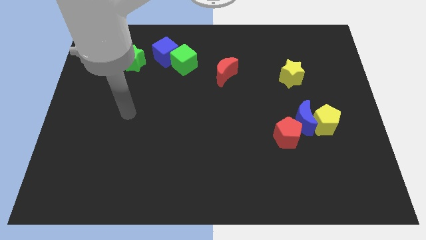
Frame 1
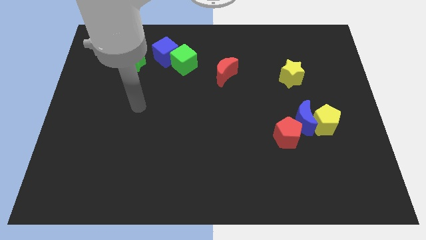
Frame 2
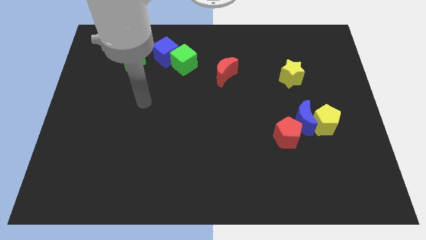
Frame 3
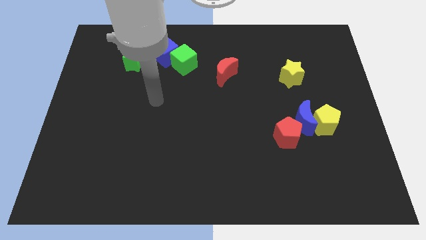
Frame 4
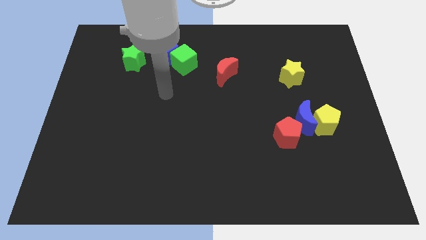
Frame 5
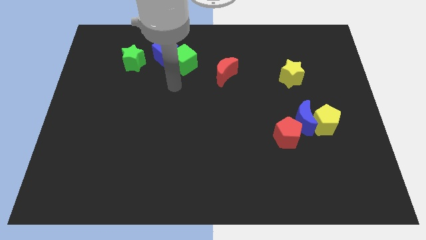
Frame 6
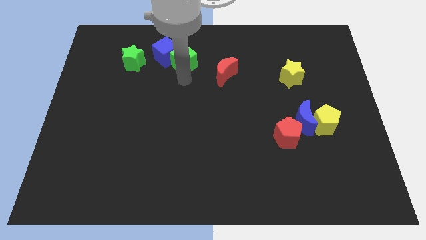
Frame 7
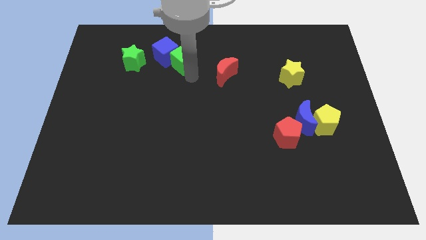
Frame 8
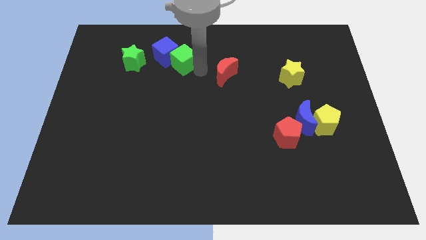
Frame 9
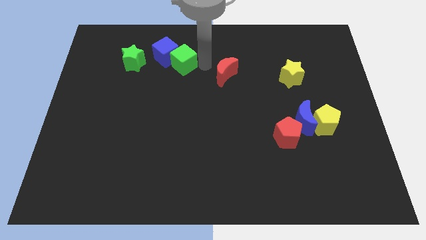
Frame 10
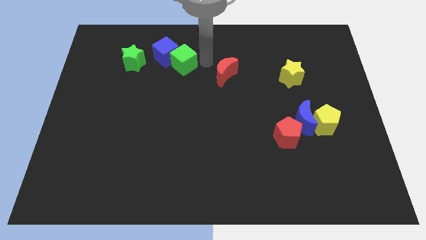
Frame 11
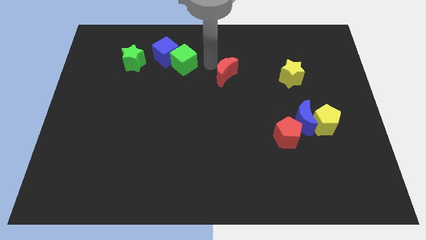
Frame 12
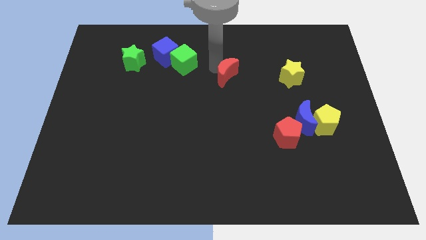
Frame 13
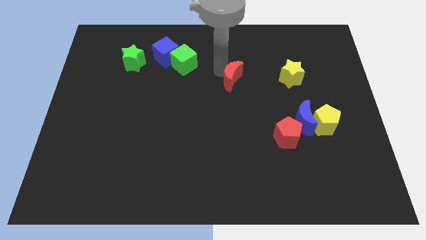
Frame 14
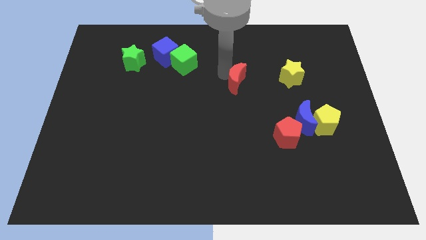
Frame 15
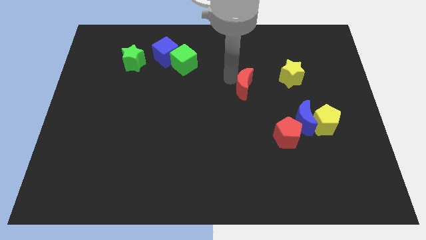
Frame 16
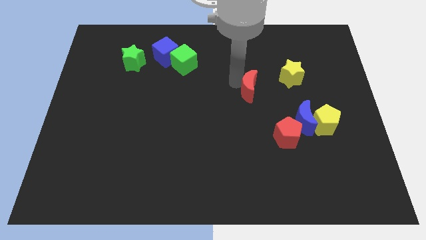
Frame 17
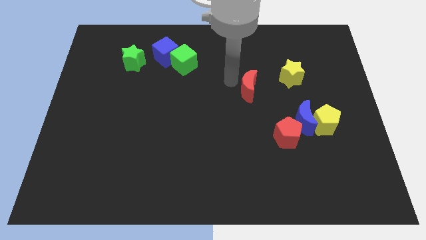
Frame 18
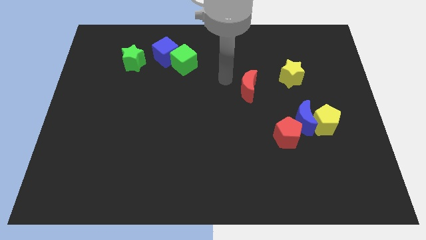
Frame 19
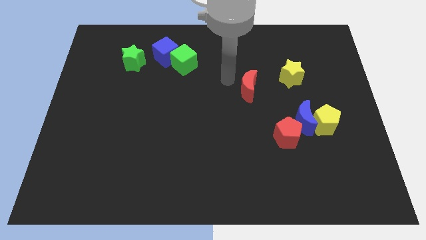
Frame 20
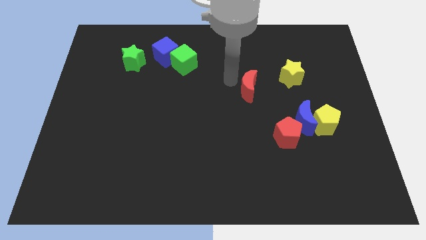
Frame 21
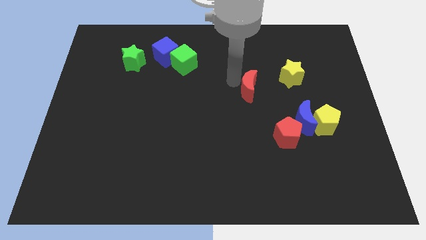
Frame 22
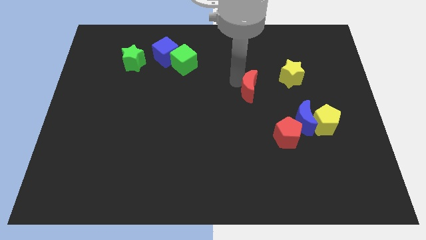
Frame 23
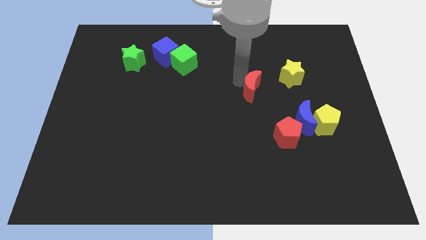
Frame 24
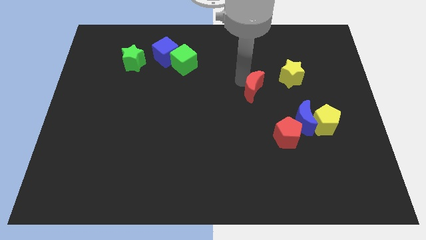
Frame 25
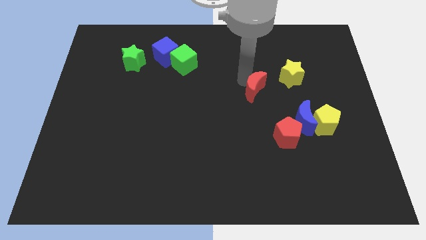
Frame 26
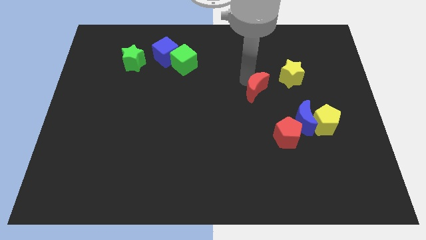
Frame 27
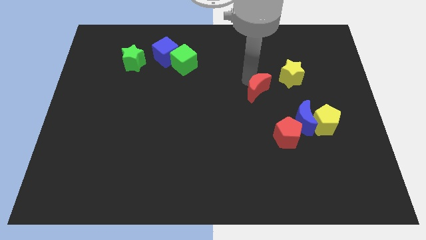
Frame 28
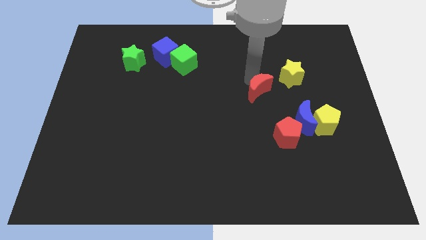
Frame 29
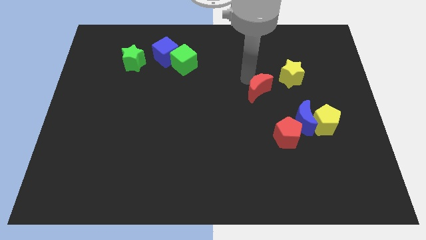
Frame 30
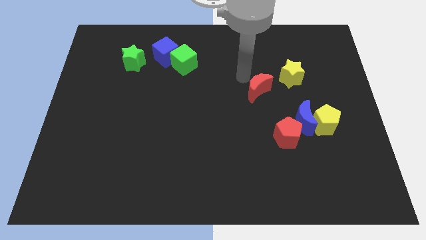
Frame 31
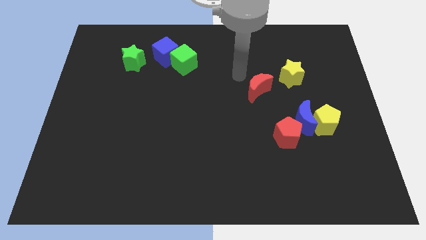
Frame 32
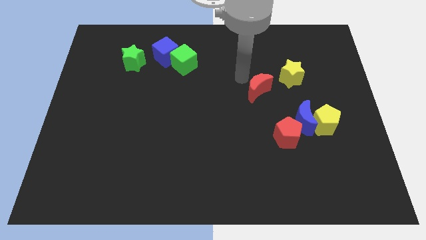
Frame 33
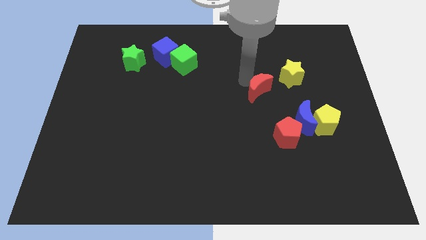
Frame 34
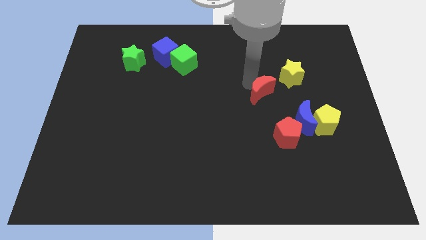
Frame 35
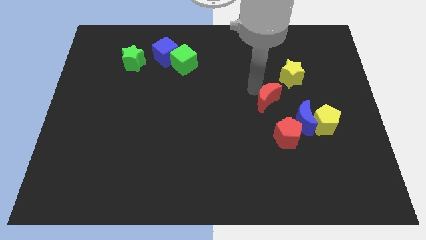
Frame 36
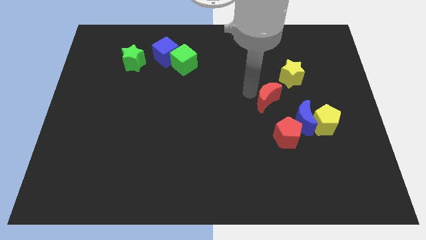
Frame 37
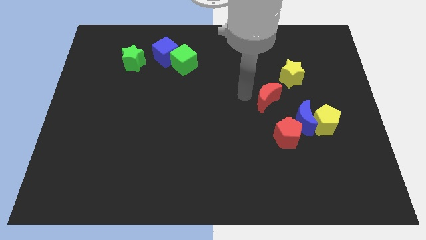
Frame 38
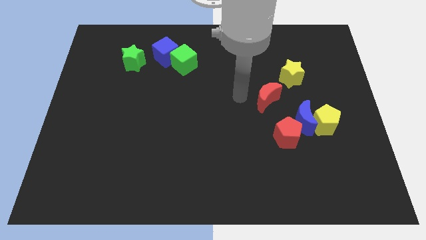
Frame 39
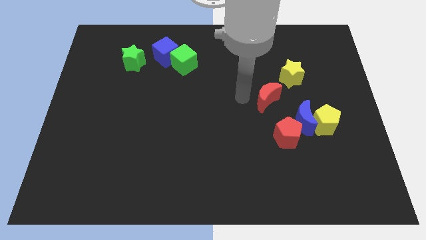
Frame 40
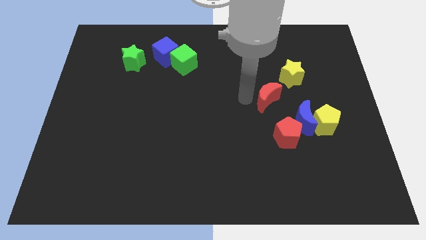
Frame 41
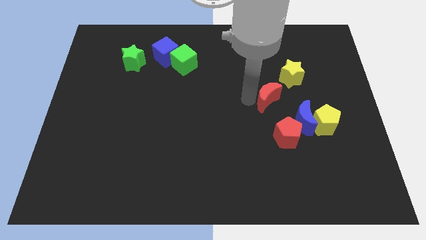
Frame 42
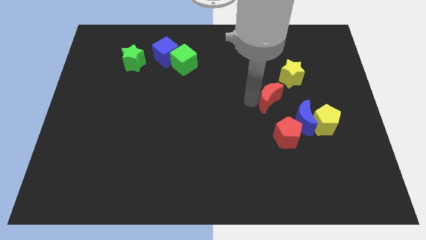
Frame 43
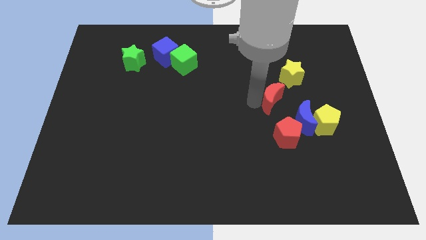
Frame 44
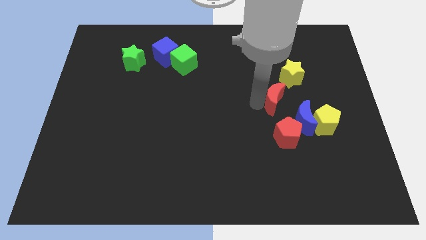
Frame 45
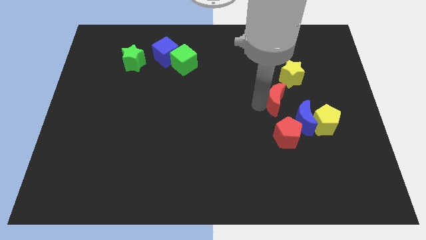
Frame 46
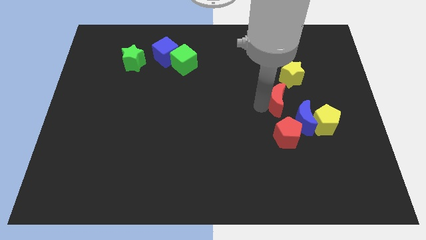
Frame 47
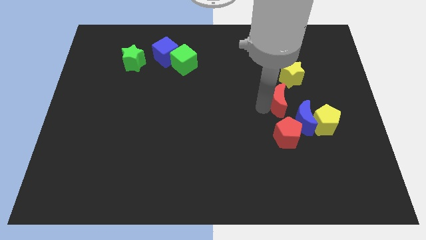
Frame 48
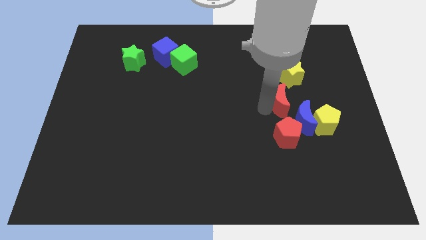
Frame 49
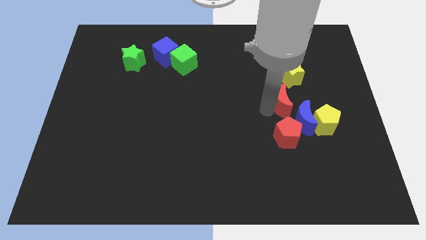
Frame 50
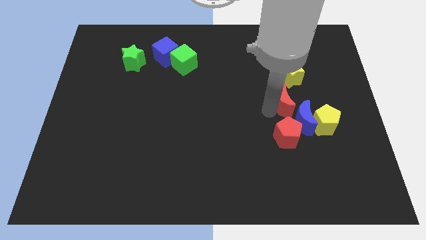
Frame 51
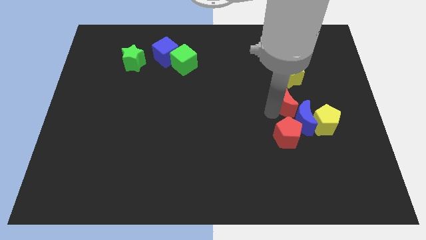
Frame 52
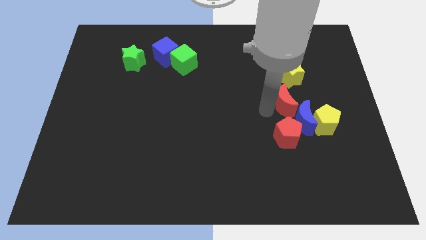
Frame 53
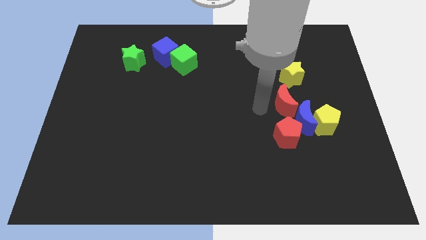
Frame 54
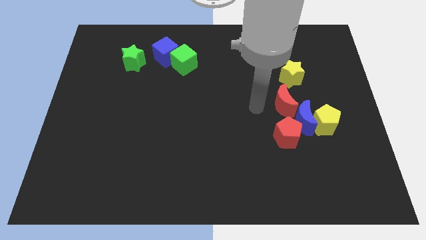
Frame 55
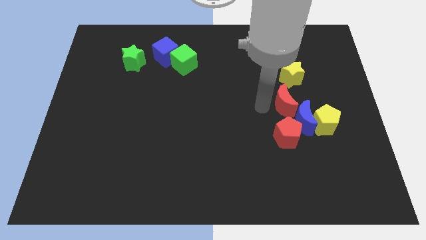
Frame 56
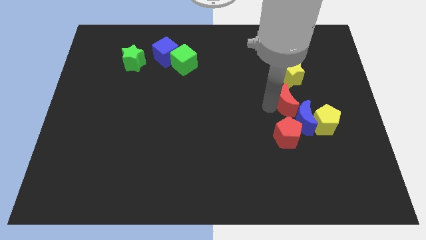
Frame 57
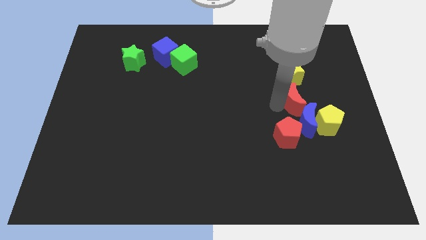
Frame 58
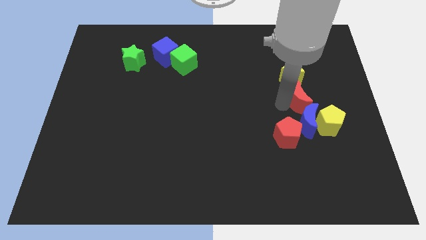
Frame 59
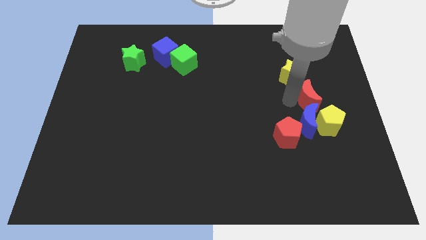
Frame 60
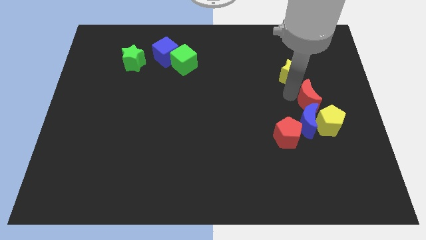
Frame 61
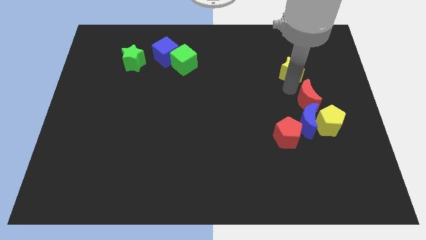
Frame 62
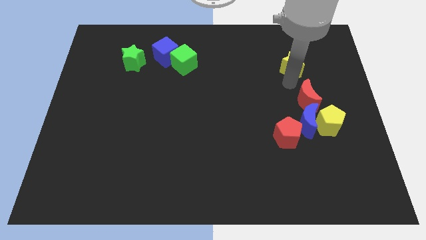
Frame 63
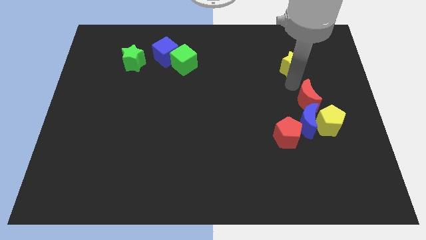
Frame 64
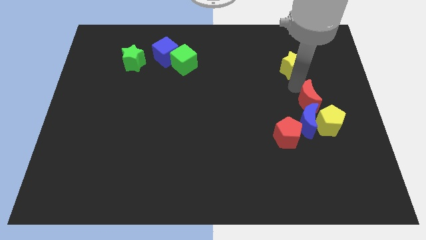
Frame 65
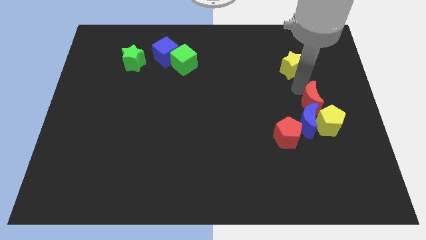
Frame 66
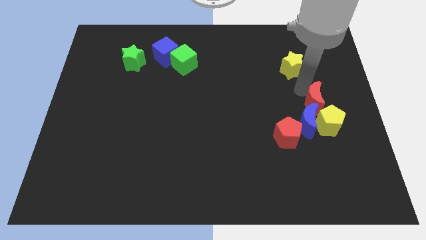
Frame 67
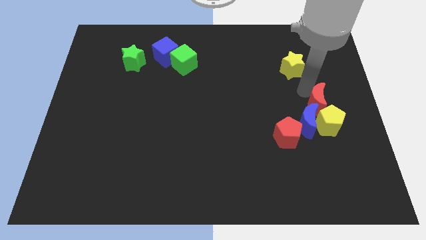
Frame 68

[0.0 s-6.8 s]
put the red moon towards the yellow pentagon
